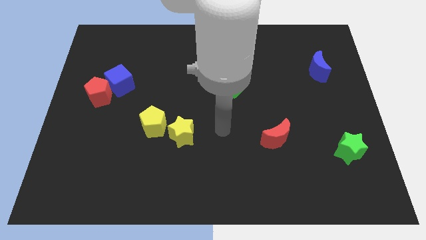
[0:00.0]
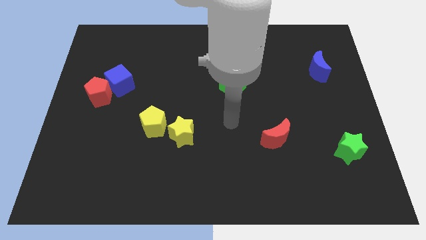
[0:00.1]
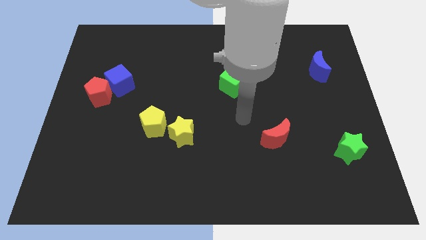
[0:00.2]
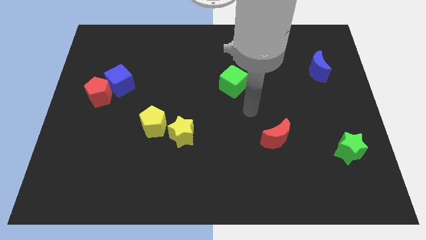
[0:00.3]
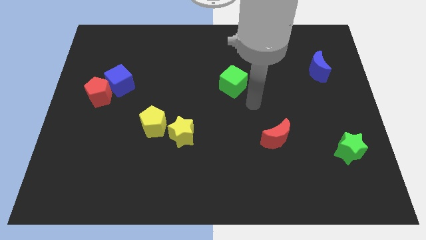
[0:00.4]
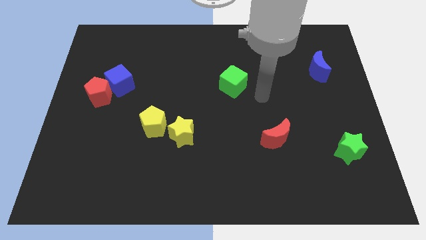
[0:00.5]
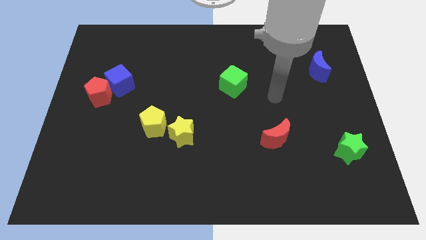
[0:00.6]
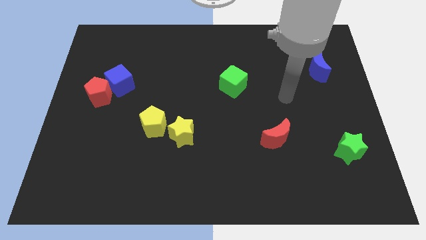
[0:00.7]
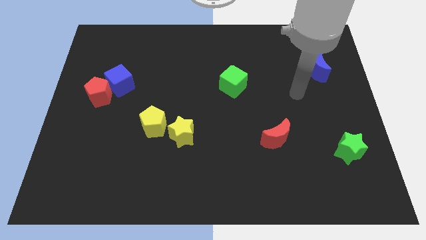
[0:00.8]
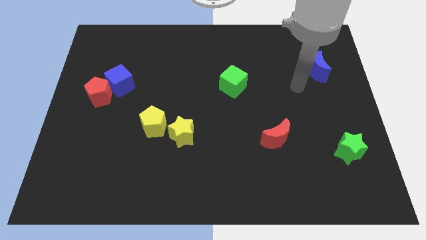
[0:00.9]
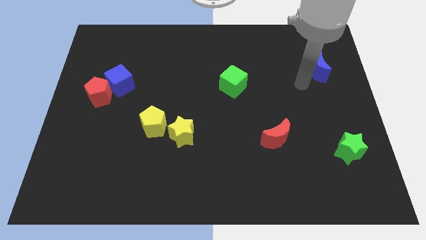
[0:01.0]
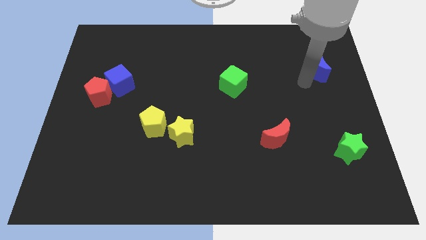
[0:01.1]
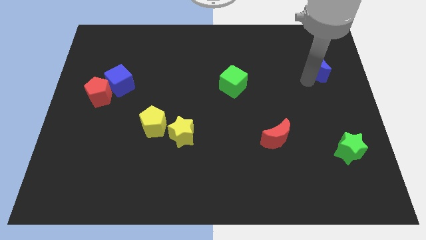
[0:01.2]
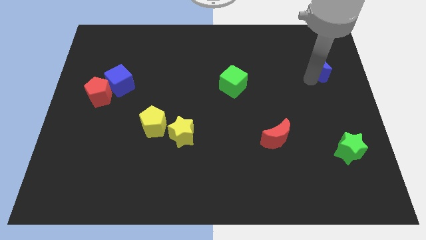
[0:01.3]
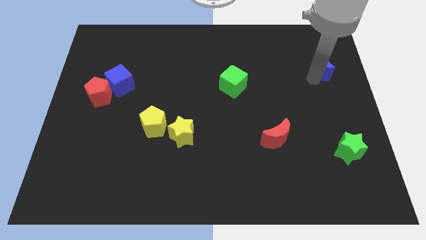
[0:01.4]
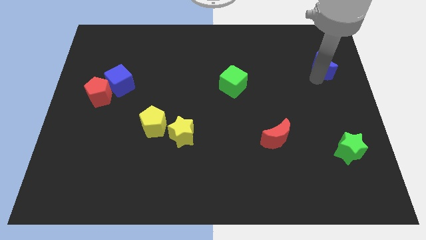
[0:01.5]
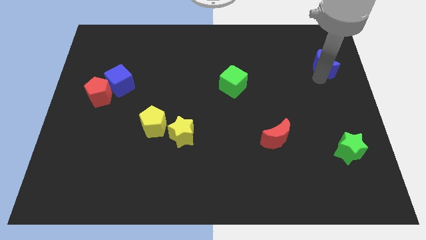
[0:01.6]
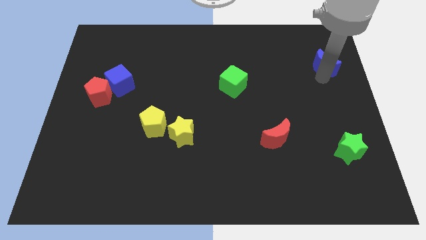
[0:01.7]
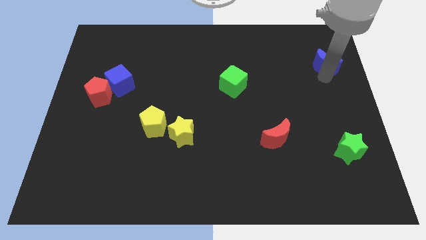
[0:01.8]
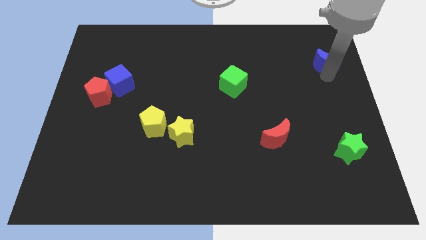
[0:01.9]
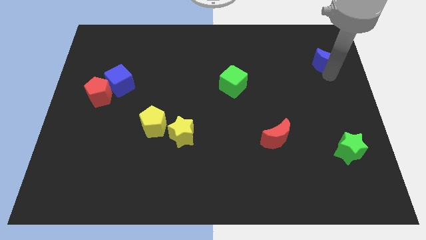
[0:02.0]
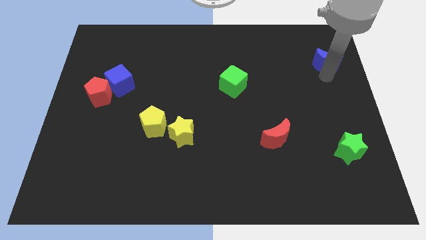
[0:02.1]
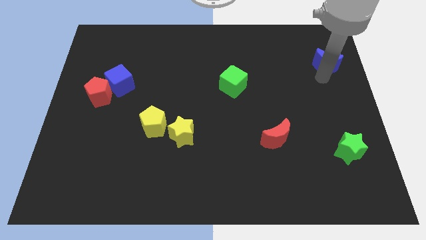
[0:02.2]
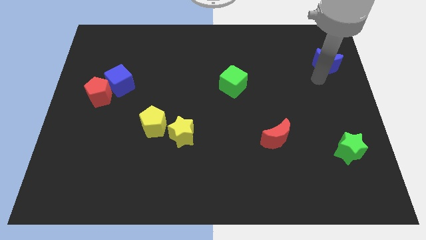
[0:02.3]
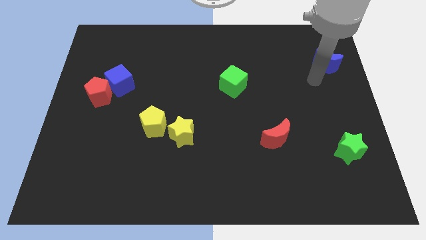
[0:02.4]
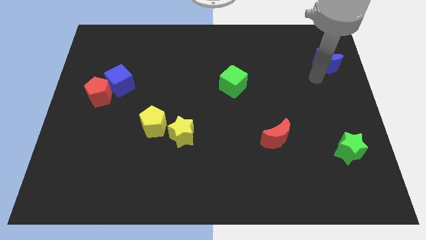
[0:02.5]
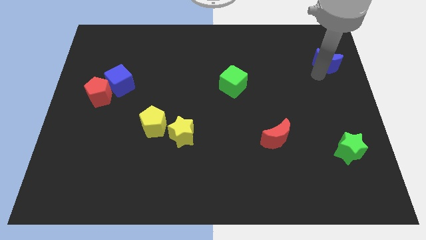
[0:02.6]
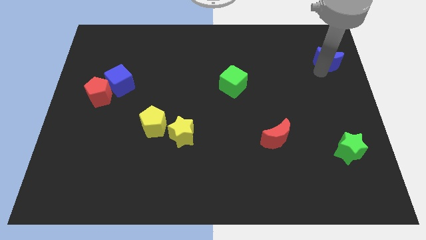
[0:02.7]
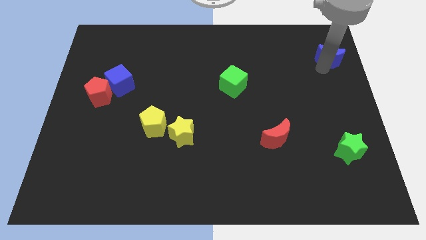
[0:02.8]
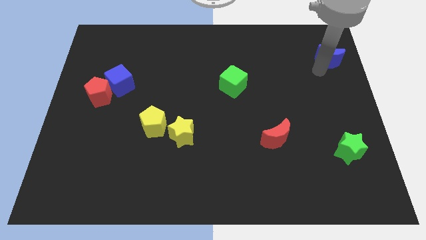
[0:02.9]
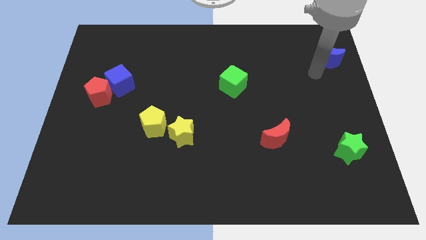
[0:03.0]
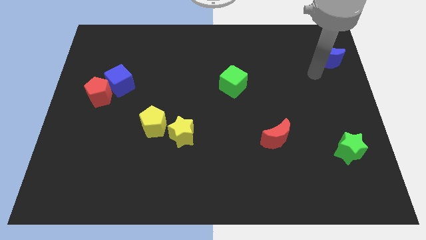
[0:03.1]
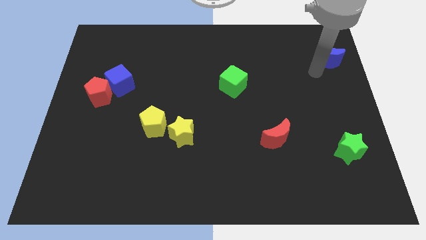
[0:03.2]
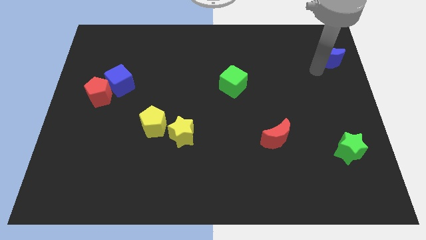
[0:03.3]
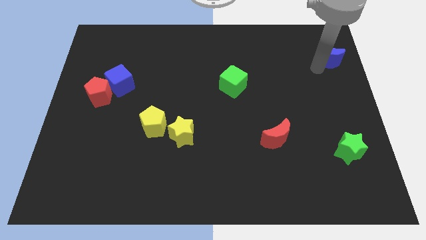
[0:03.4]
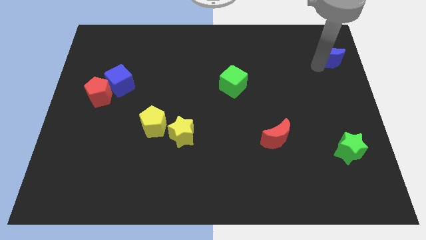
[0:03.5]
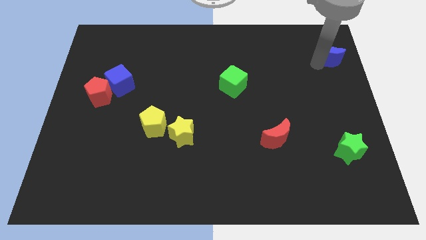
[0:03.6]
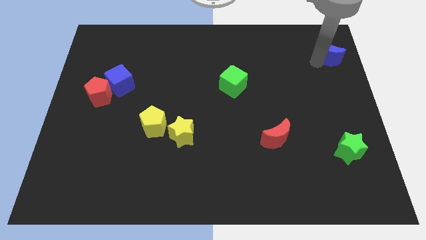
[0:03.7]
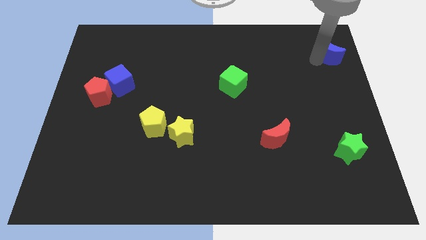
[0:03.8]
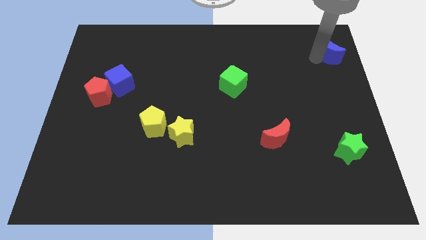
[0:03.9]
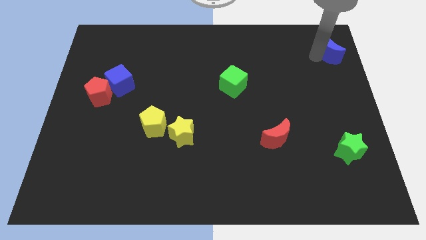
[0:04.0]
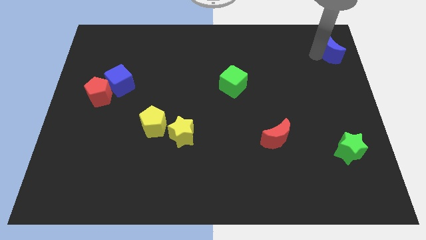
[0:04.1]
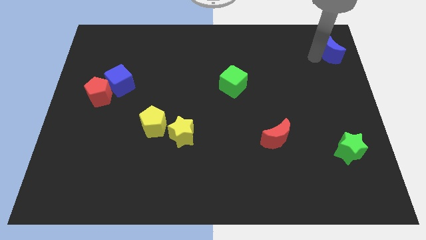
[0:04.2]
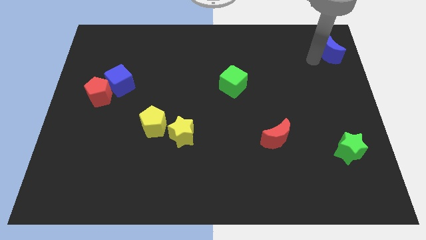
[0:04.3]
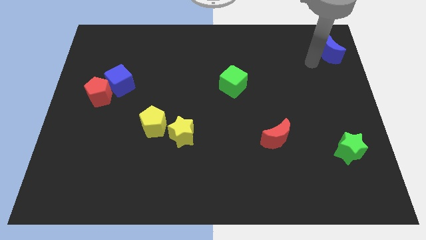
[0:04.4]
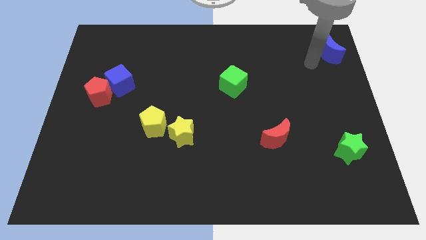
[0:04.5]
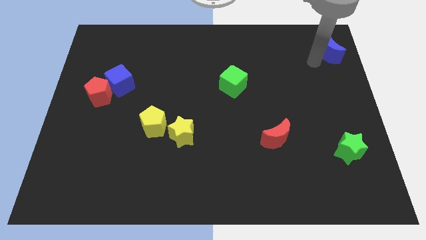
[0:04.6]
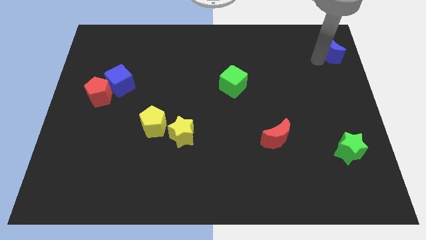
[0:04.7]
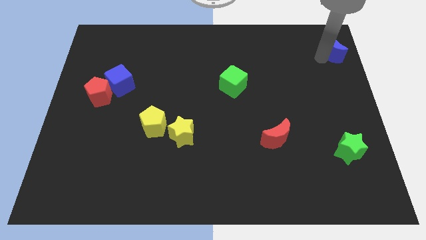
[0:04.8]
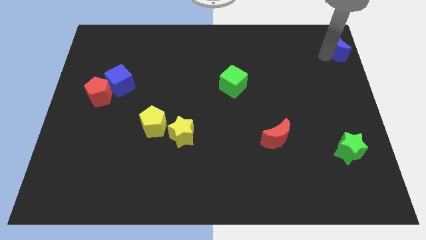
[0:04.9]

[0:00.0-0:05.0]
move the blue moon to the upper right corner

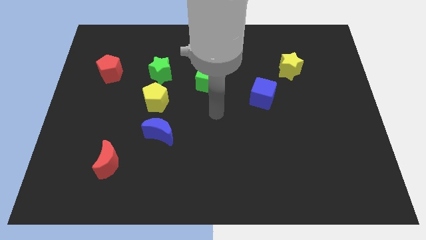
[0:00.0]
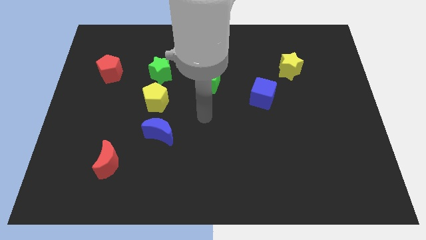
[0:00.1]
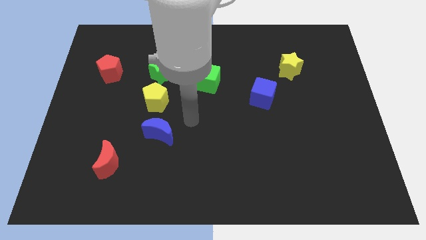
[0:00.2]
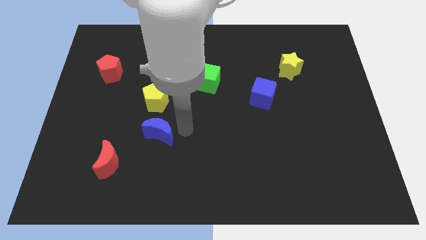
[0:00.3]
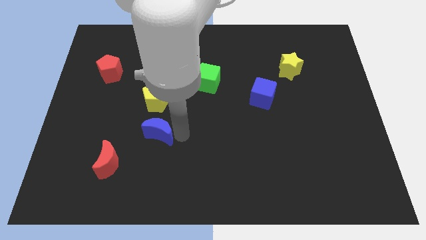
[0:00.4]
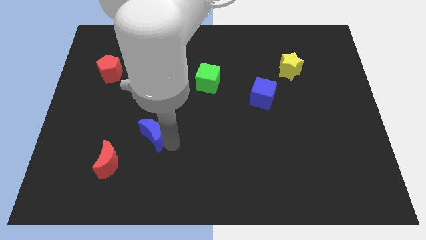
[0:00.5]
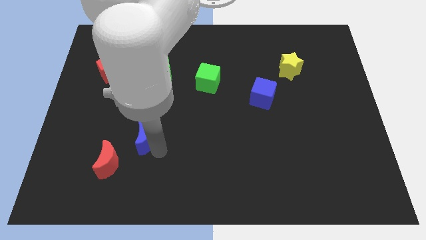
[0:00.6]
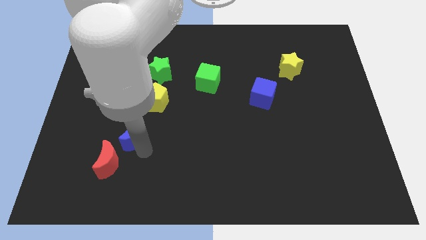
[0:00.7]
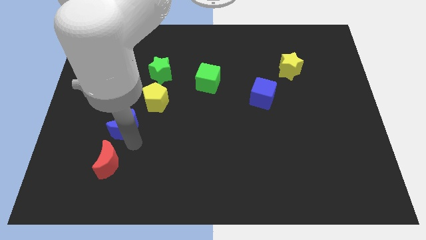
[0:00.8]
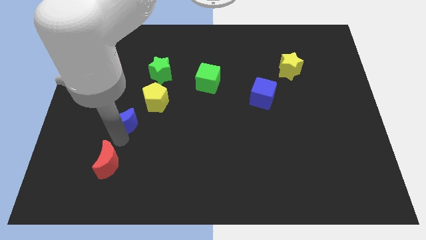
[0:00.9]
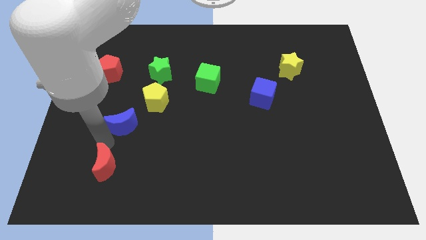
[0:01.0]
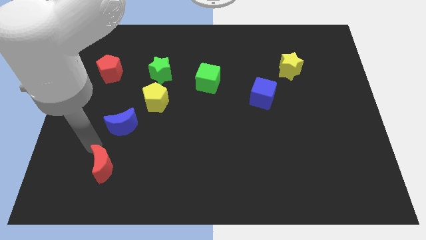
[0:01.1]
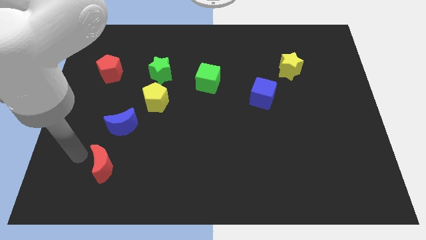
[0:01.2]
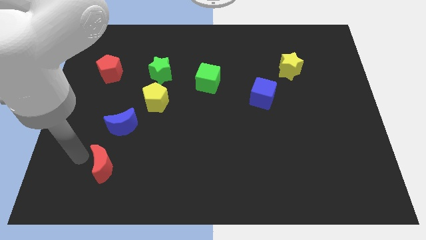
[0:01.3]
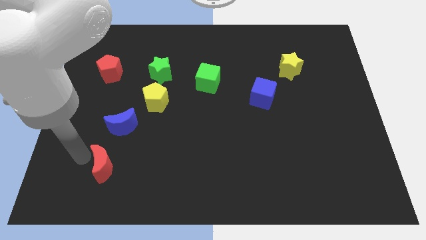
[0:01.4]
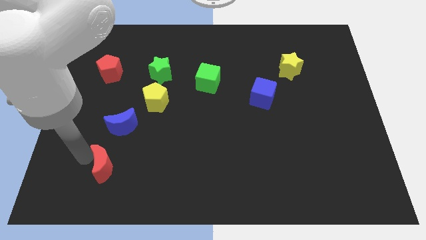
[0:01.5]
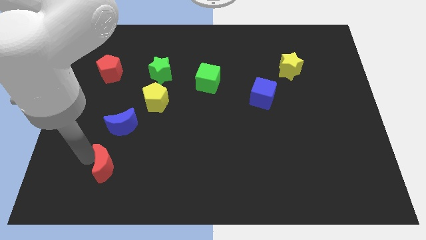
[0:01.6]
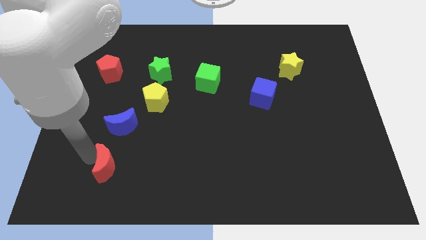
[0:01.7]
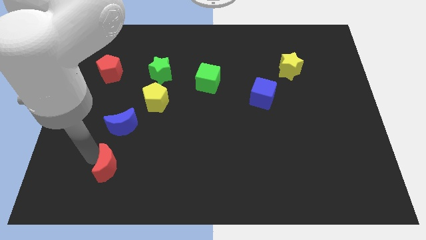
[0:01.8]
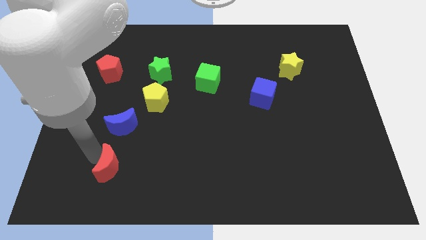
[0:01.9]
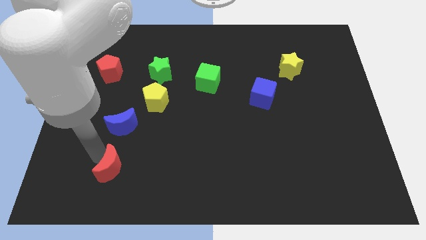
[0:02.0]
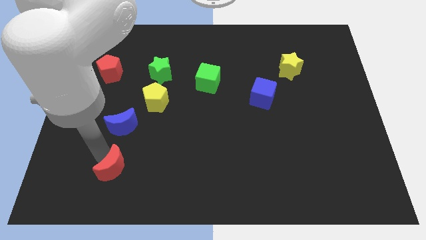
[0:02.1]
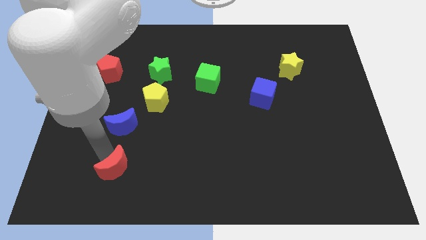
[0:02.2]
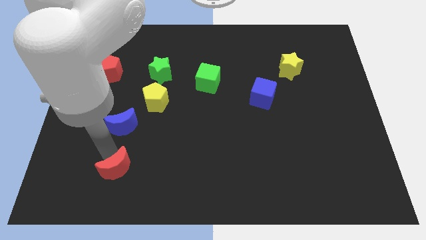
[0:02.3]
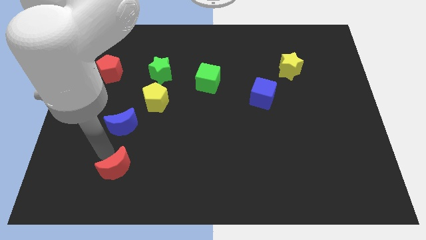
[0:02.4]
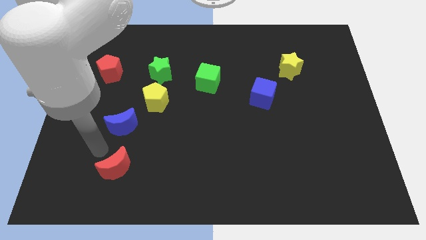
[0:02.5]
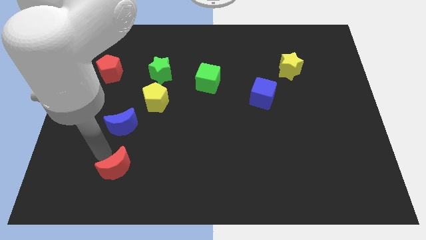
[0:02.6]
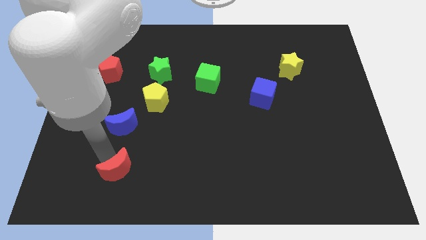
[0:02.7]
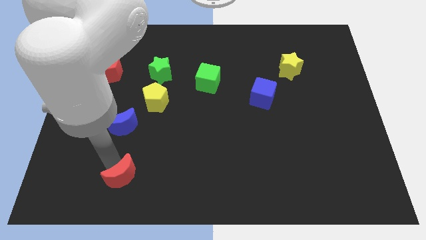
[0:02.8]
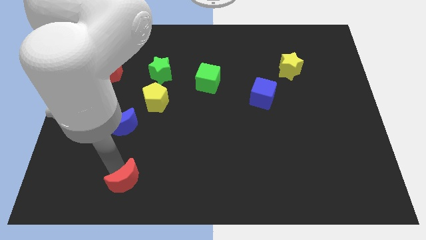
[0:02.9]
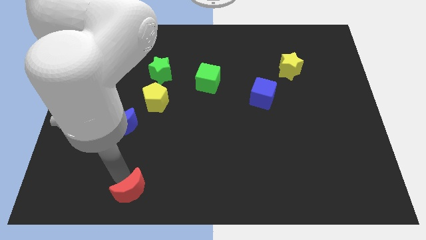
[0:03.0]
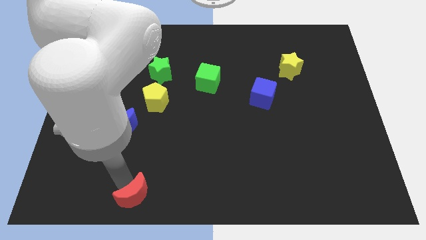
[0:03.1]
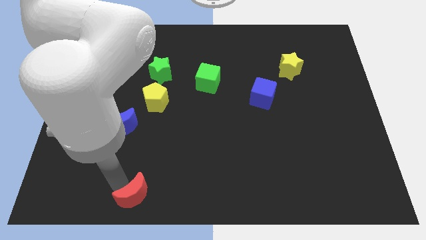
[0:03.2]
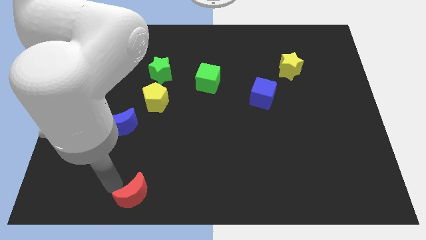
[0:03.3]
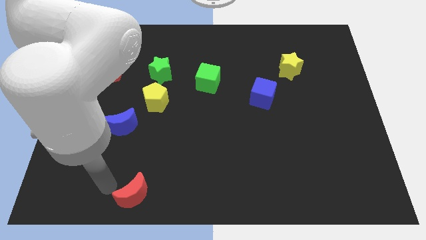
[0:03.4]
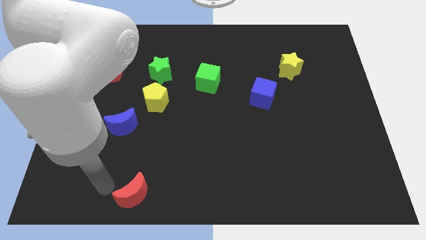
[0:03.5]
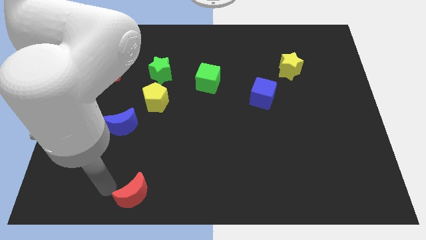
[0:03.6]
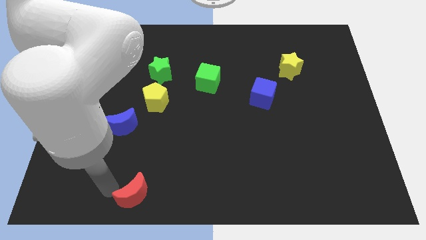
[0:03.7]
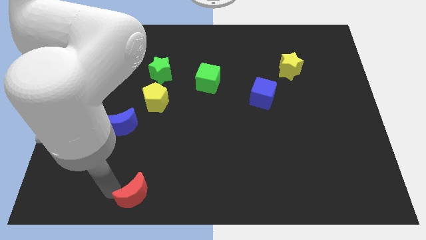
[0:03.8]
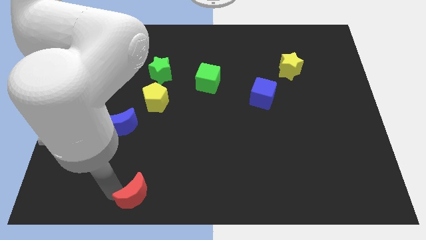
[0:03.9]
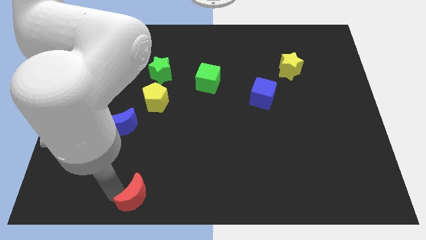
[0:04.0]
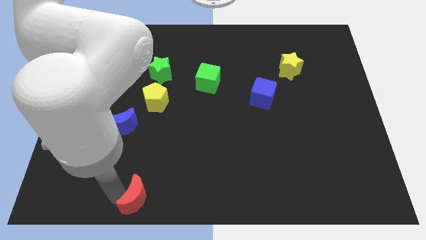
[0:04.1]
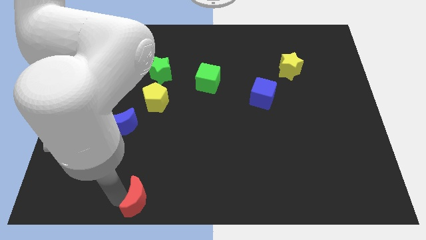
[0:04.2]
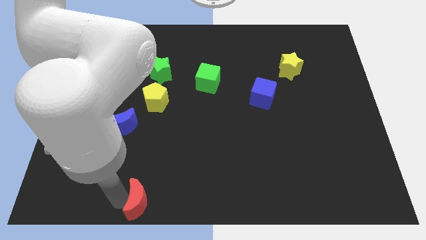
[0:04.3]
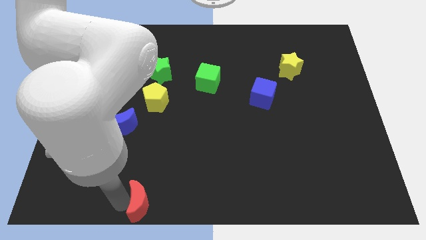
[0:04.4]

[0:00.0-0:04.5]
put the red moon to the bottom side
